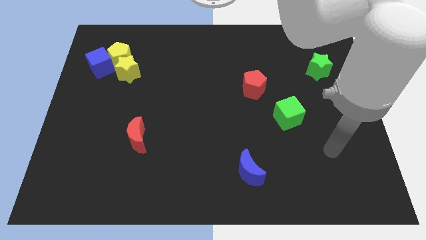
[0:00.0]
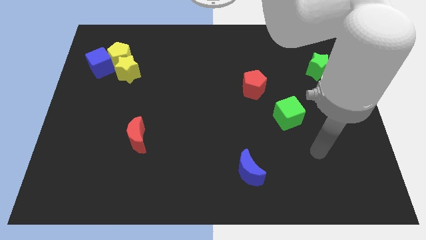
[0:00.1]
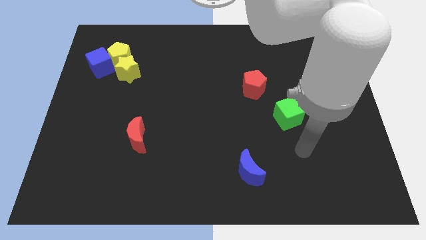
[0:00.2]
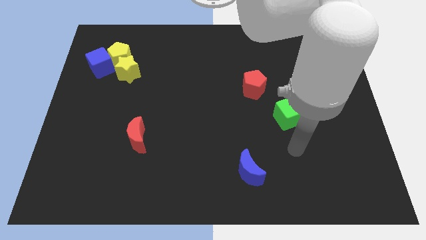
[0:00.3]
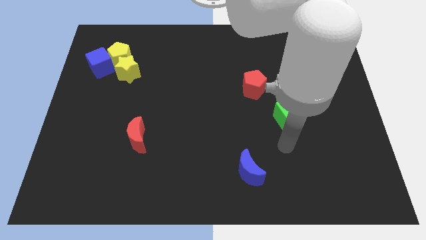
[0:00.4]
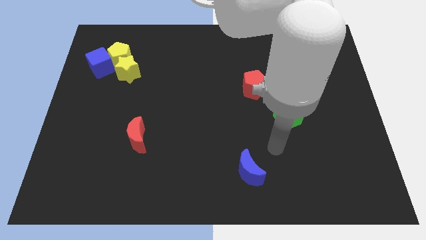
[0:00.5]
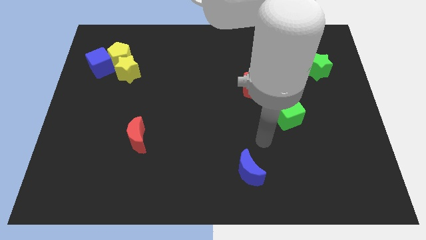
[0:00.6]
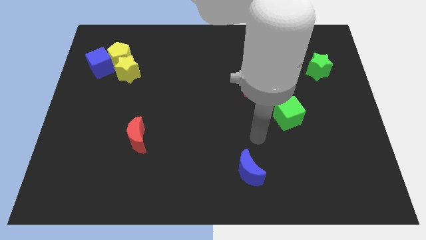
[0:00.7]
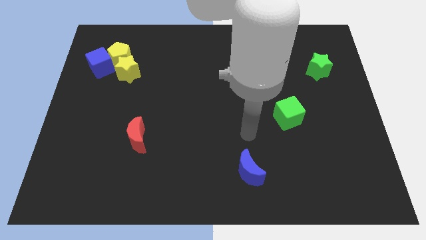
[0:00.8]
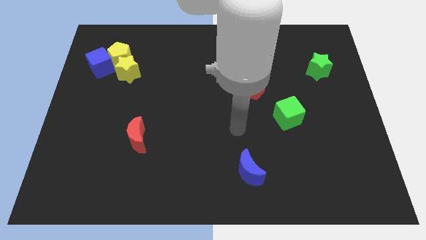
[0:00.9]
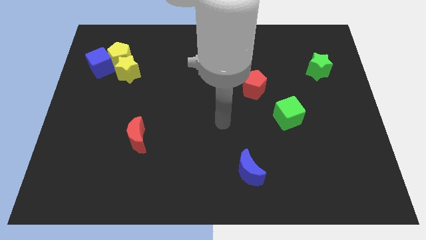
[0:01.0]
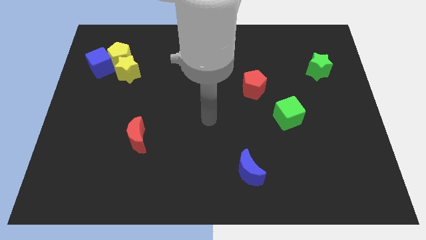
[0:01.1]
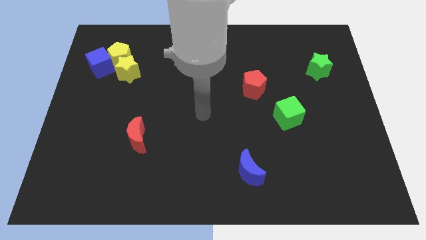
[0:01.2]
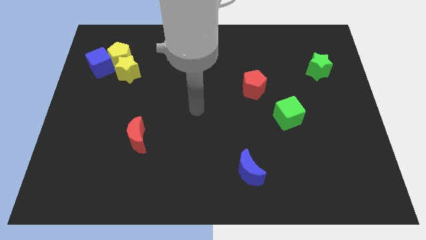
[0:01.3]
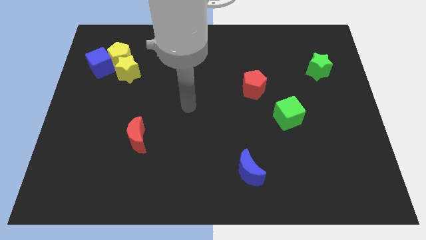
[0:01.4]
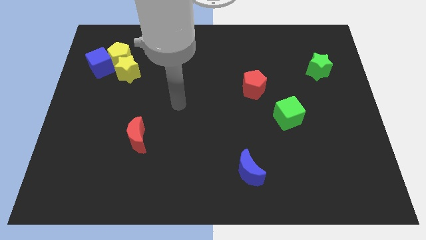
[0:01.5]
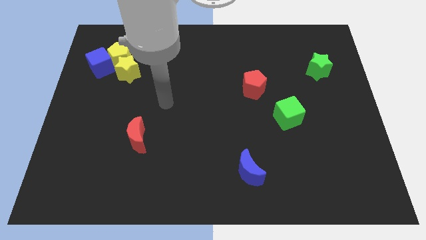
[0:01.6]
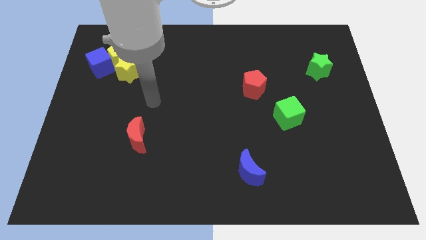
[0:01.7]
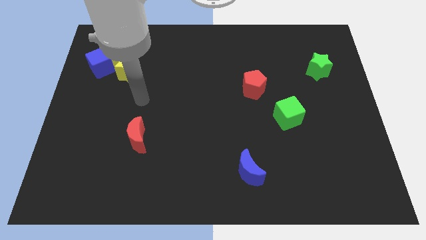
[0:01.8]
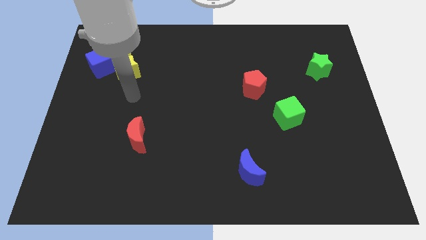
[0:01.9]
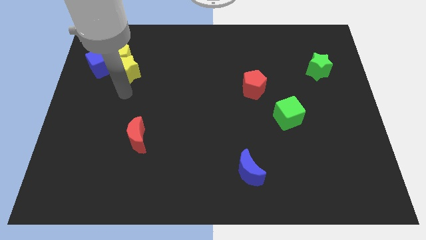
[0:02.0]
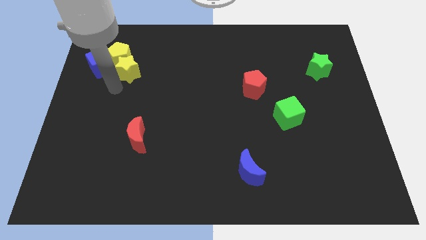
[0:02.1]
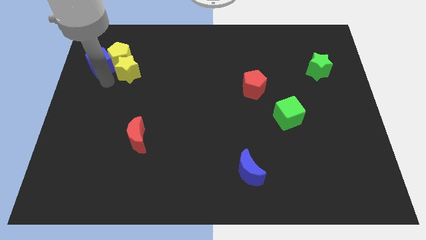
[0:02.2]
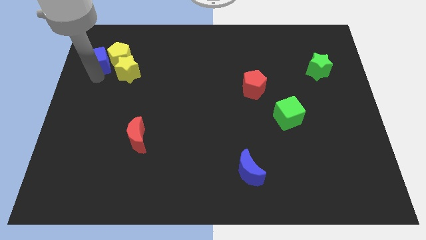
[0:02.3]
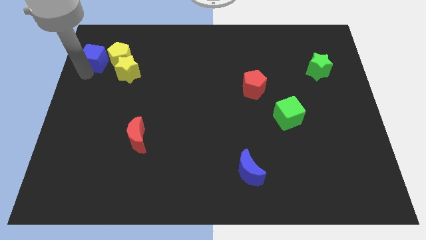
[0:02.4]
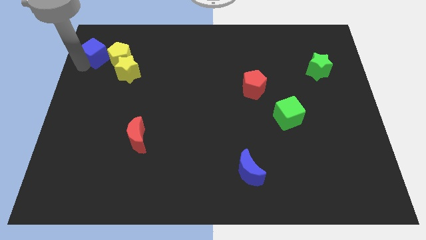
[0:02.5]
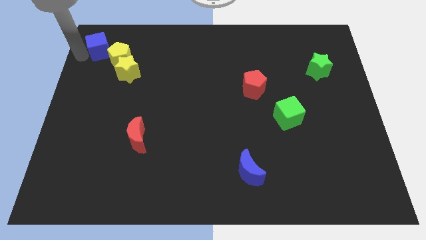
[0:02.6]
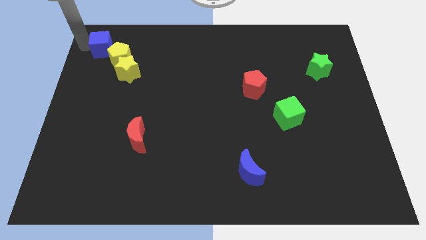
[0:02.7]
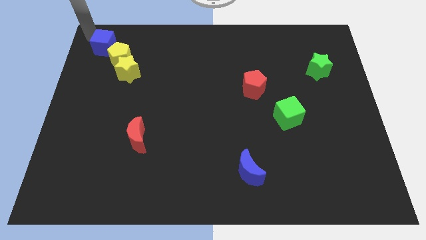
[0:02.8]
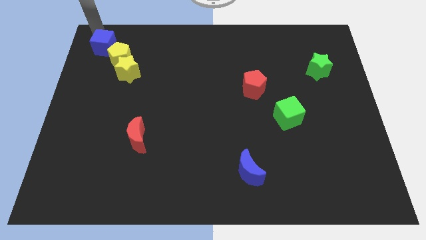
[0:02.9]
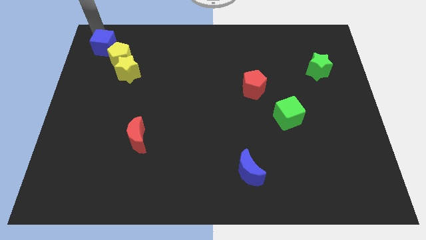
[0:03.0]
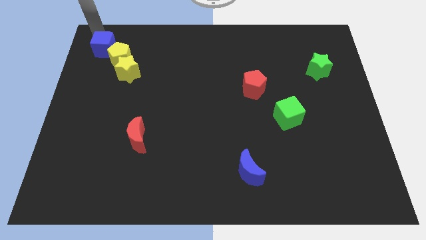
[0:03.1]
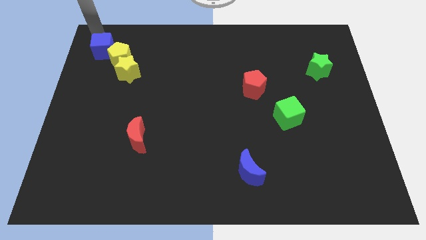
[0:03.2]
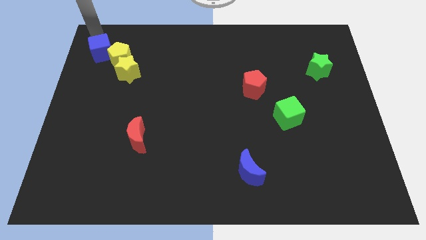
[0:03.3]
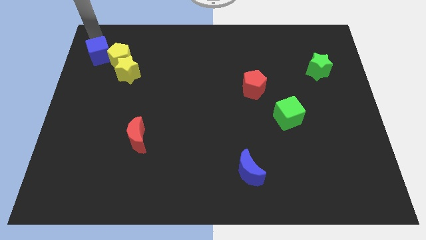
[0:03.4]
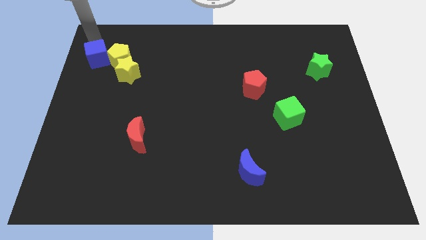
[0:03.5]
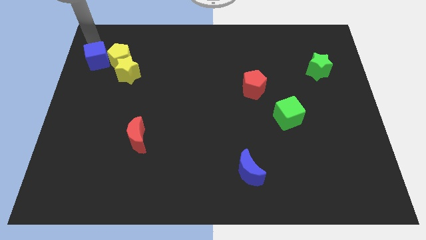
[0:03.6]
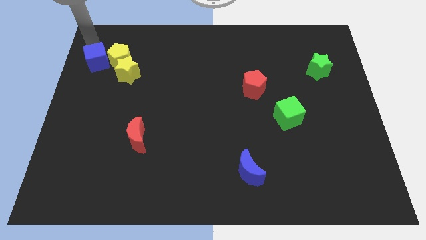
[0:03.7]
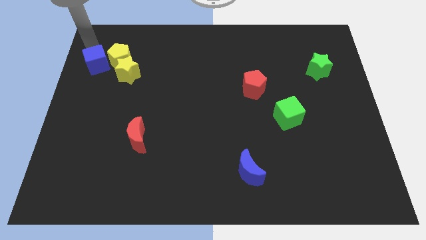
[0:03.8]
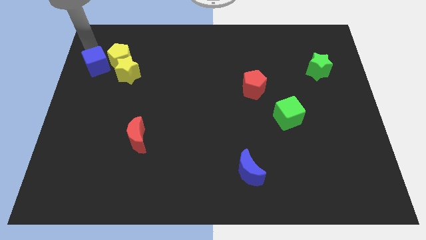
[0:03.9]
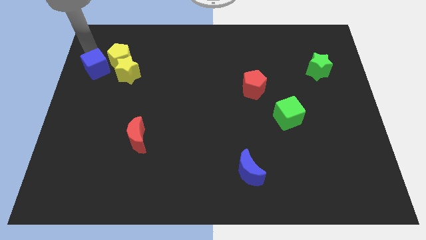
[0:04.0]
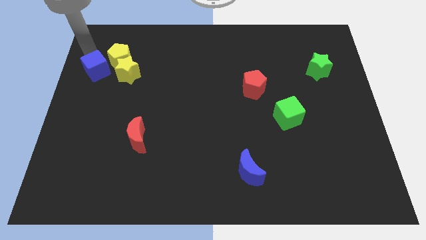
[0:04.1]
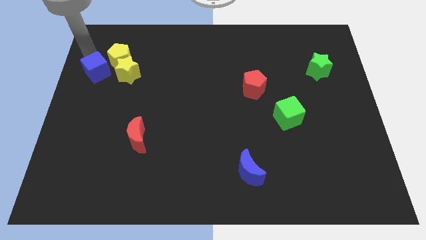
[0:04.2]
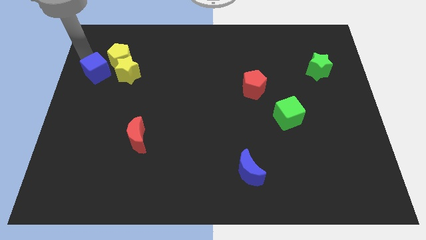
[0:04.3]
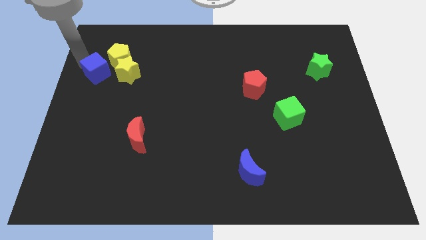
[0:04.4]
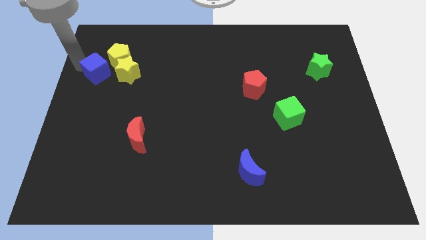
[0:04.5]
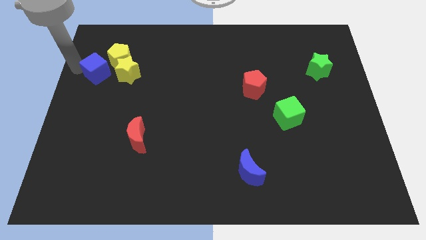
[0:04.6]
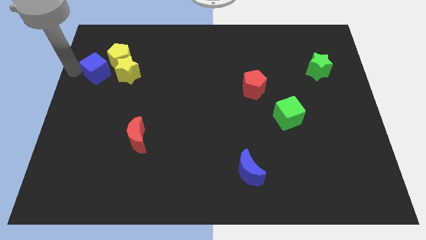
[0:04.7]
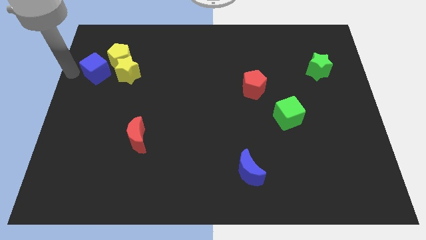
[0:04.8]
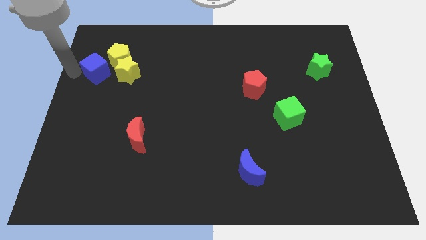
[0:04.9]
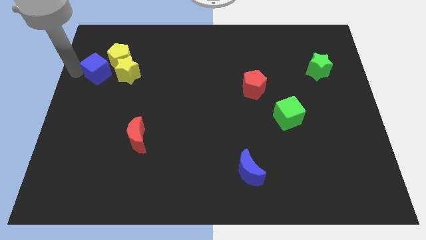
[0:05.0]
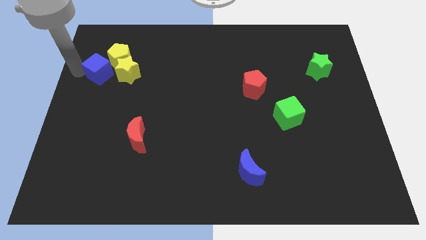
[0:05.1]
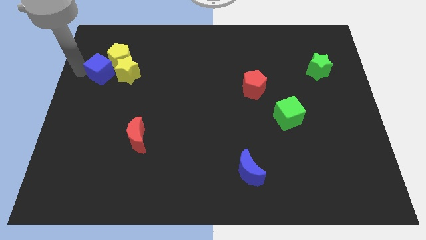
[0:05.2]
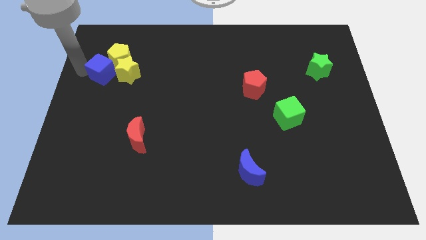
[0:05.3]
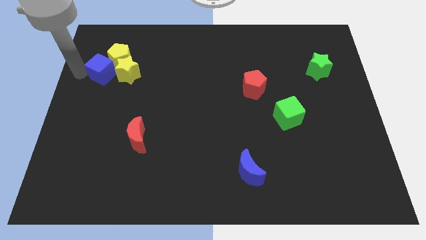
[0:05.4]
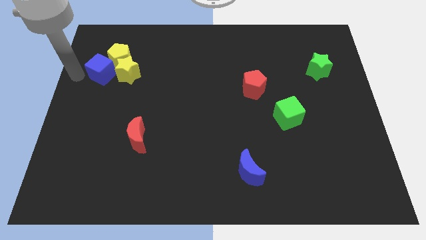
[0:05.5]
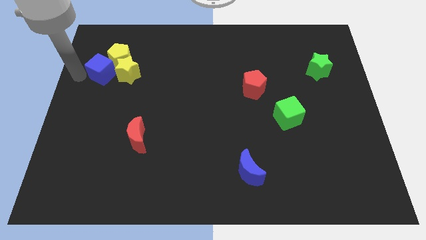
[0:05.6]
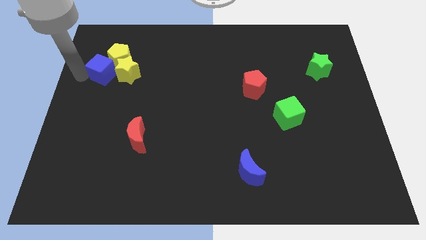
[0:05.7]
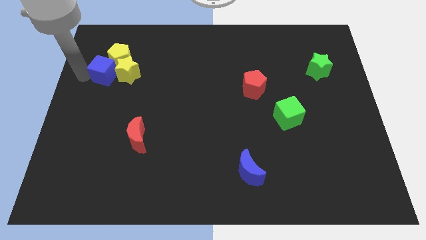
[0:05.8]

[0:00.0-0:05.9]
move the blue cube to the yellow star

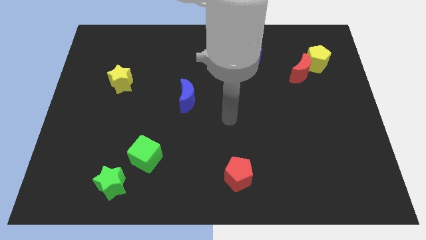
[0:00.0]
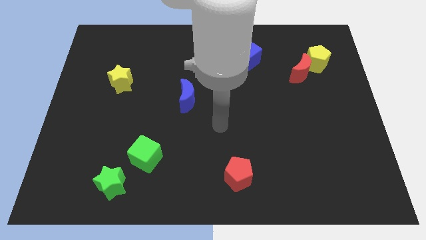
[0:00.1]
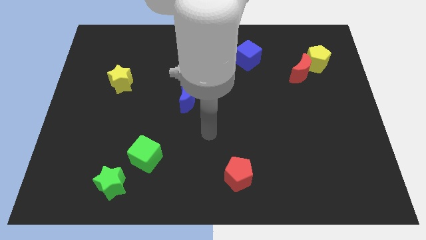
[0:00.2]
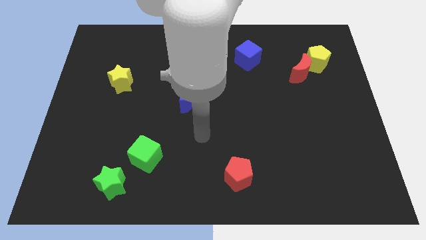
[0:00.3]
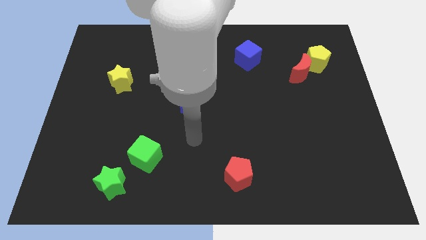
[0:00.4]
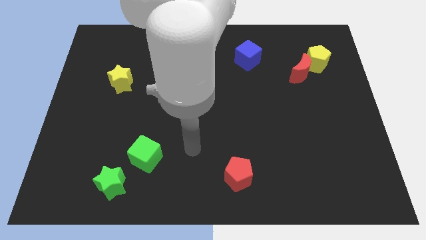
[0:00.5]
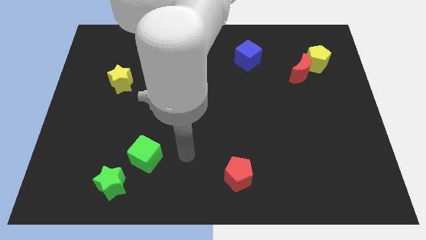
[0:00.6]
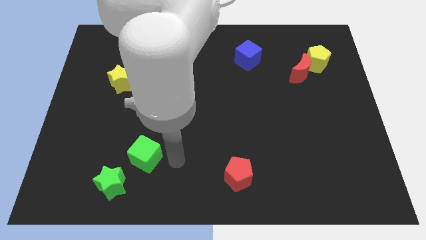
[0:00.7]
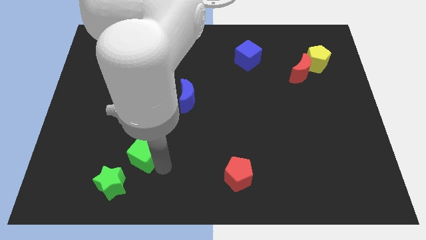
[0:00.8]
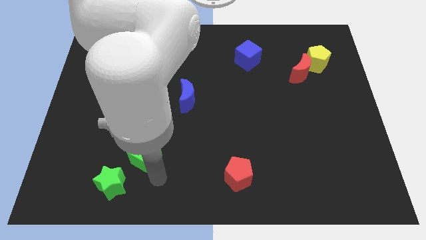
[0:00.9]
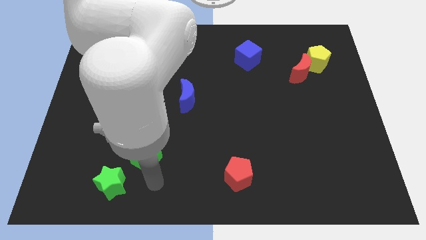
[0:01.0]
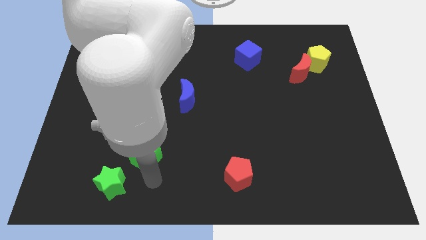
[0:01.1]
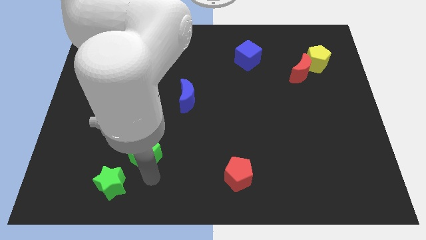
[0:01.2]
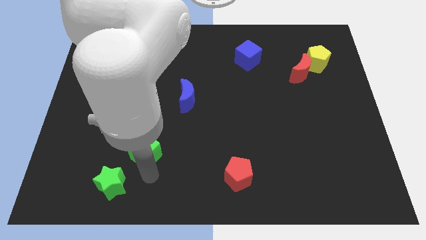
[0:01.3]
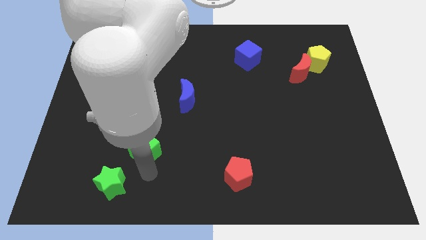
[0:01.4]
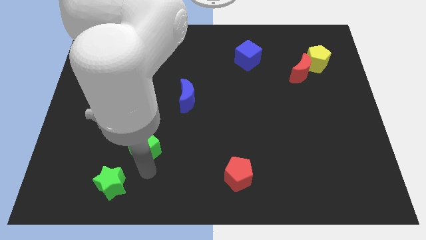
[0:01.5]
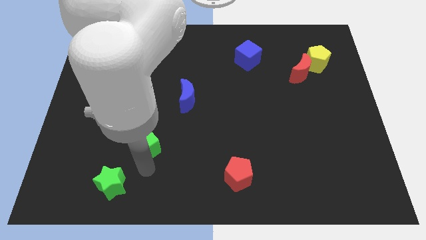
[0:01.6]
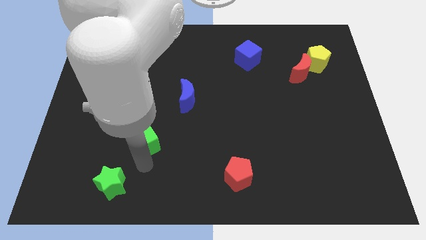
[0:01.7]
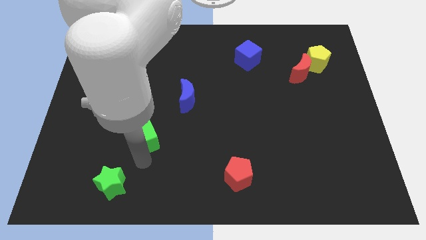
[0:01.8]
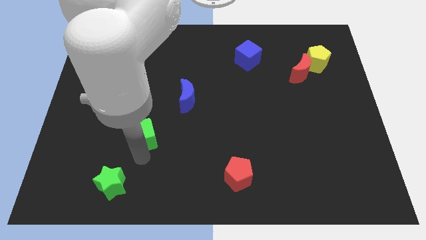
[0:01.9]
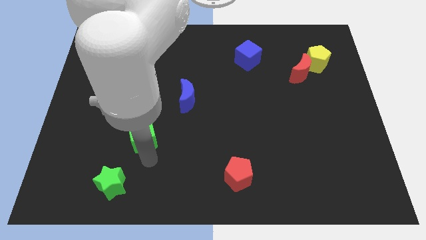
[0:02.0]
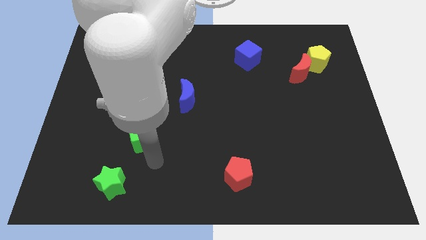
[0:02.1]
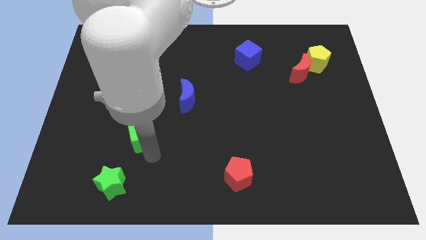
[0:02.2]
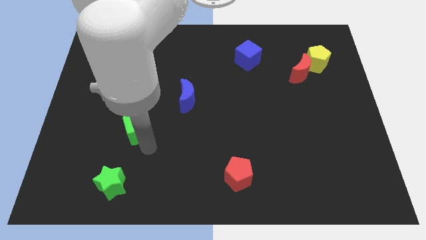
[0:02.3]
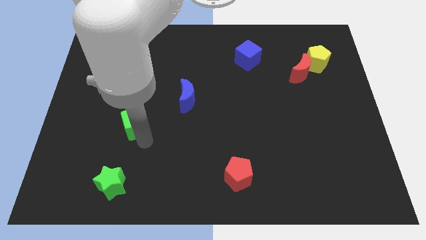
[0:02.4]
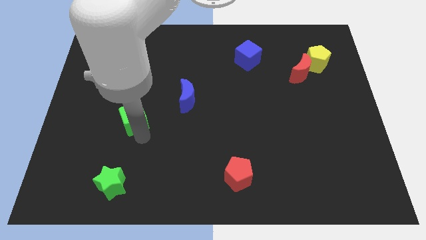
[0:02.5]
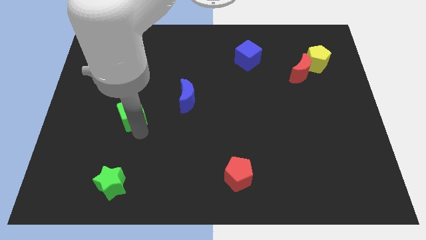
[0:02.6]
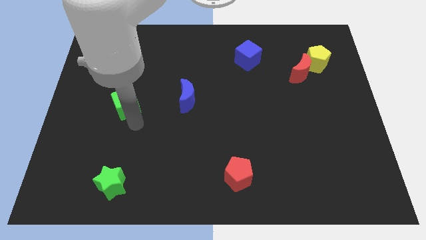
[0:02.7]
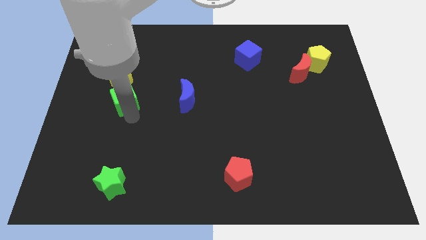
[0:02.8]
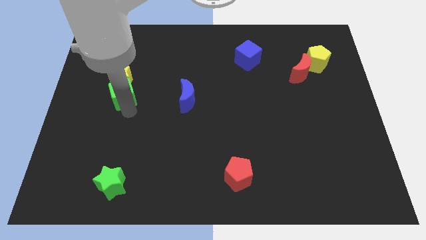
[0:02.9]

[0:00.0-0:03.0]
move the green cube next to the yellow star
